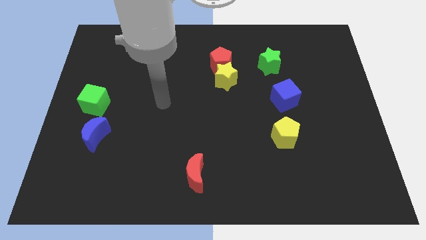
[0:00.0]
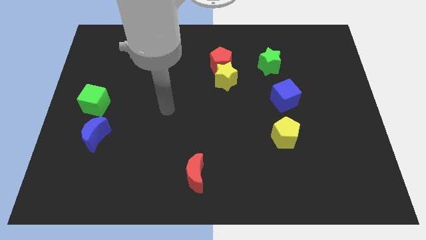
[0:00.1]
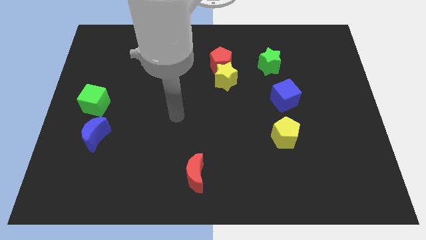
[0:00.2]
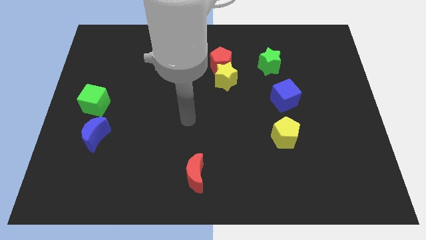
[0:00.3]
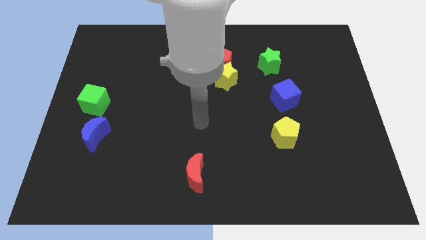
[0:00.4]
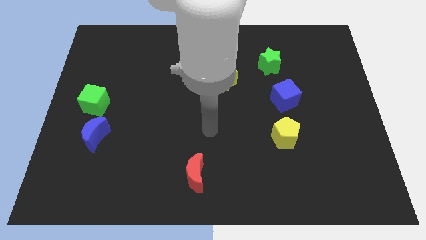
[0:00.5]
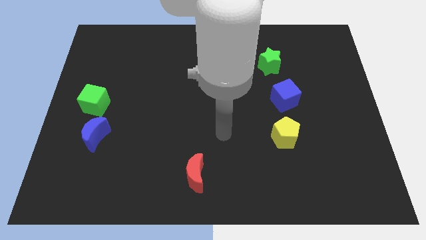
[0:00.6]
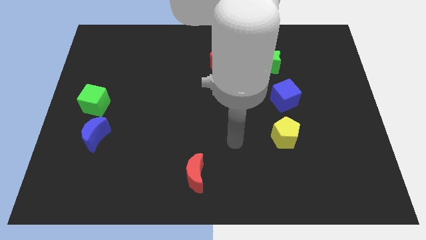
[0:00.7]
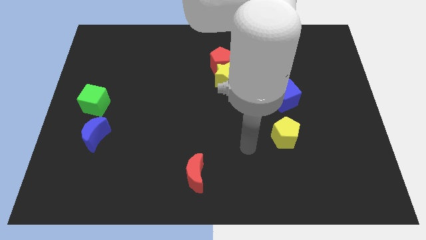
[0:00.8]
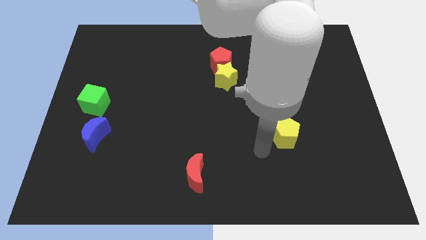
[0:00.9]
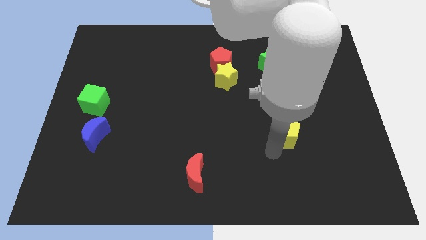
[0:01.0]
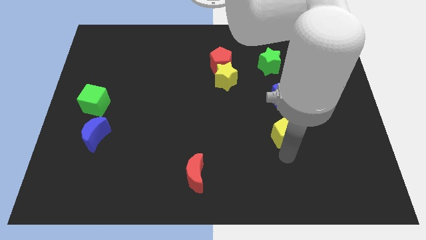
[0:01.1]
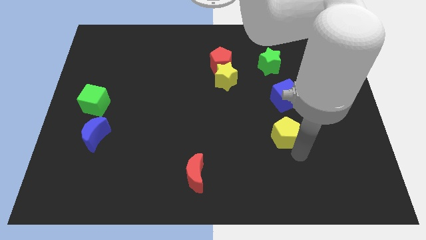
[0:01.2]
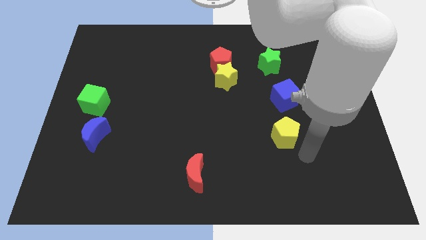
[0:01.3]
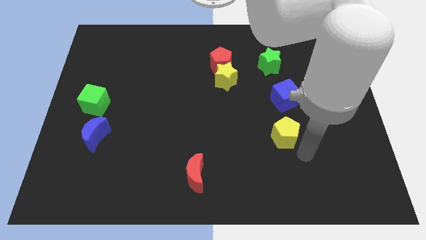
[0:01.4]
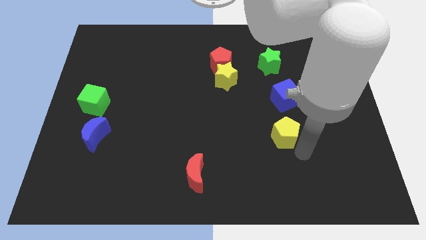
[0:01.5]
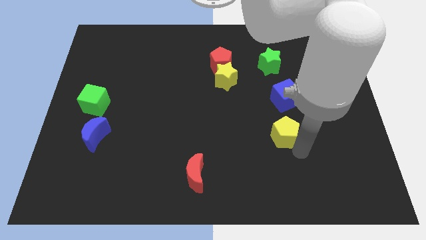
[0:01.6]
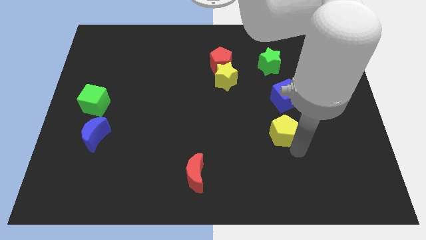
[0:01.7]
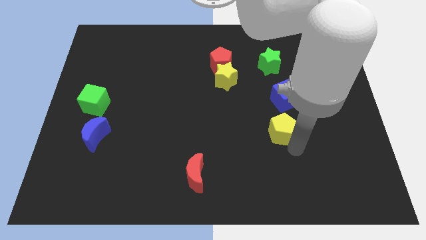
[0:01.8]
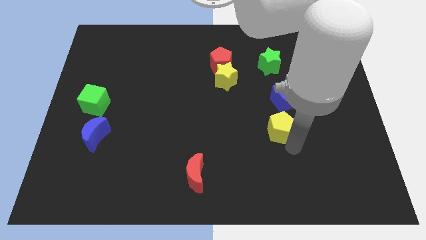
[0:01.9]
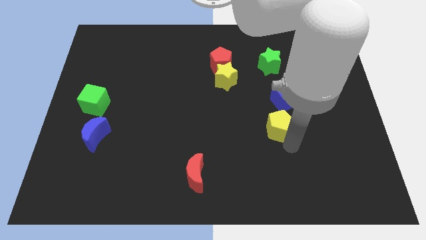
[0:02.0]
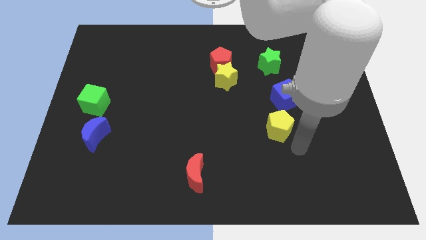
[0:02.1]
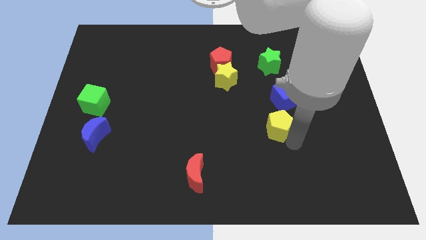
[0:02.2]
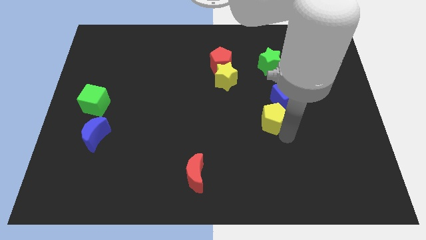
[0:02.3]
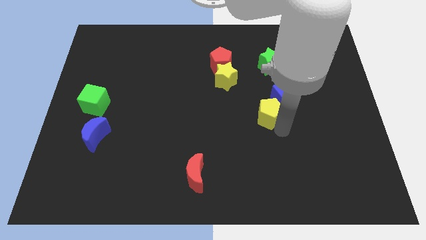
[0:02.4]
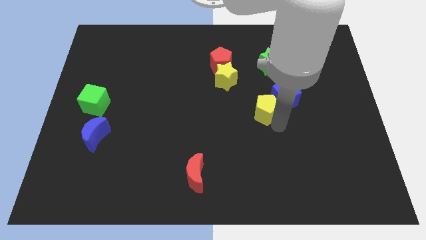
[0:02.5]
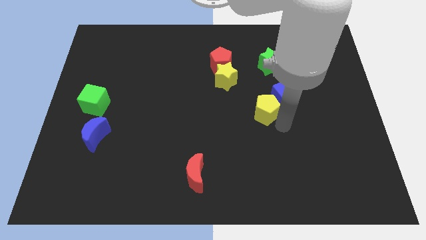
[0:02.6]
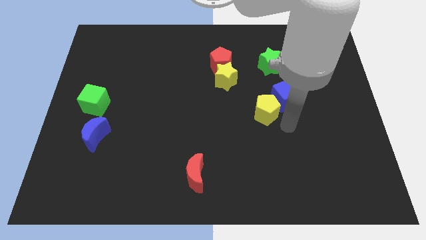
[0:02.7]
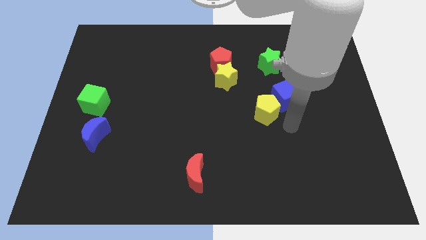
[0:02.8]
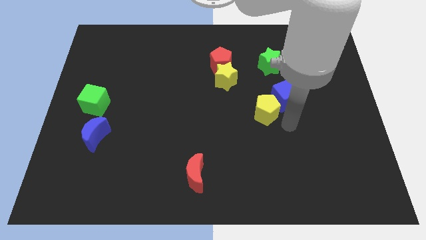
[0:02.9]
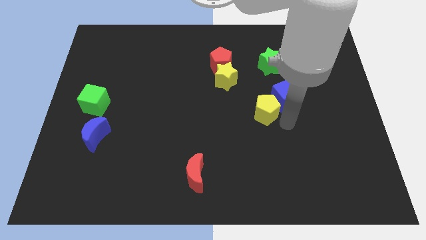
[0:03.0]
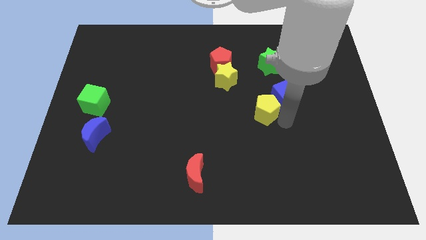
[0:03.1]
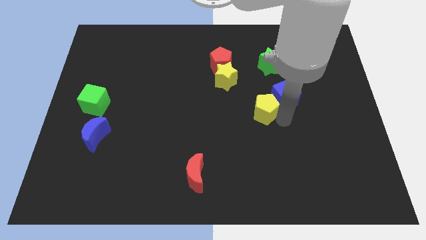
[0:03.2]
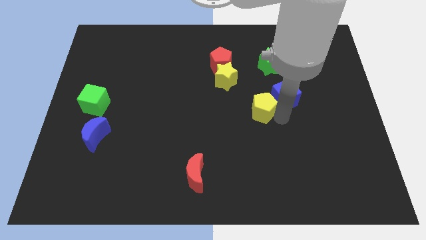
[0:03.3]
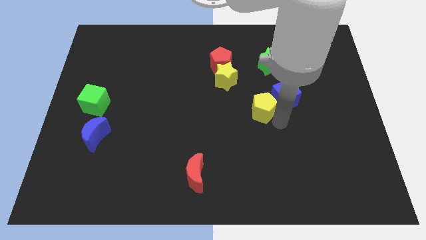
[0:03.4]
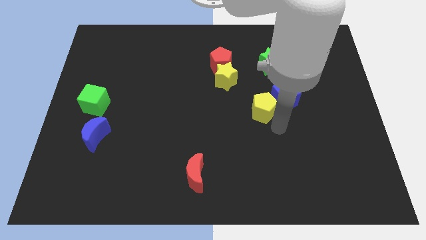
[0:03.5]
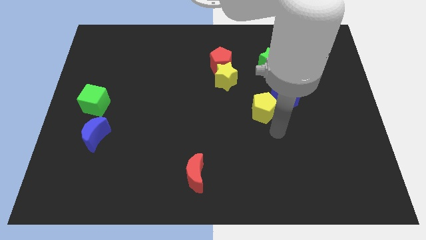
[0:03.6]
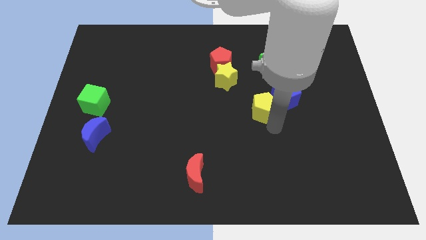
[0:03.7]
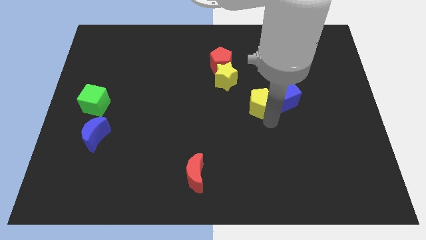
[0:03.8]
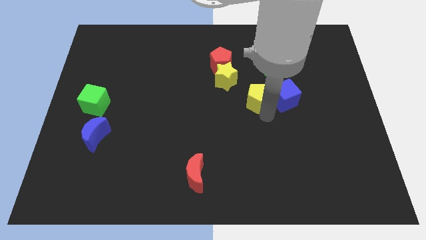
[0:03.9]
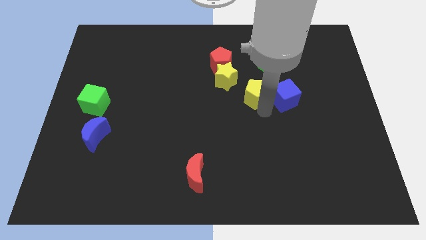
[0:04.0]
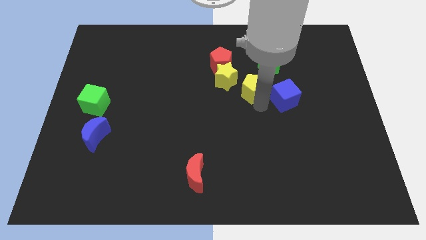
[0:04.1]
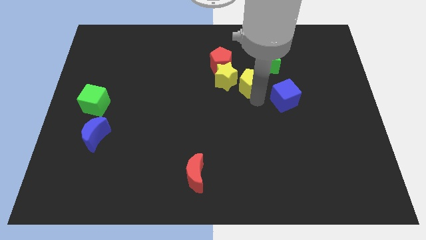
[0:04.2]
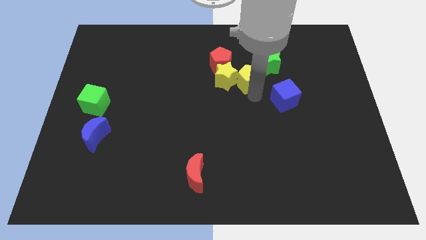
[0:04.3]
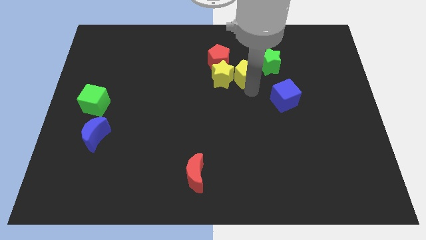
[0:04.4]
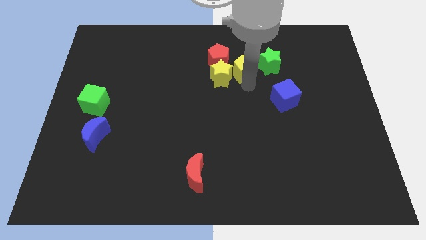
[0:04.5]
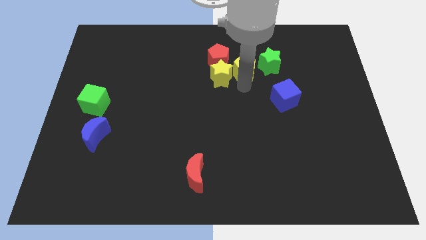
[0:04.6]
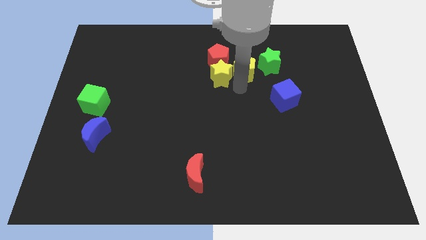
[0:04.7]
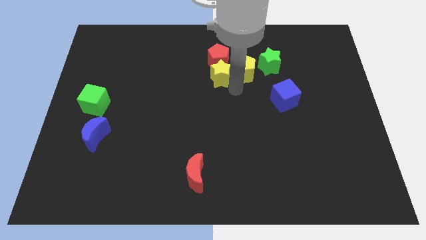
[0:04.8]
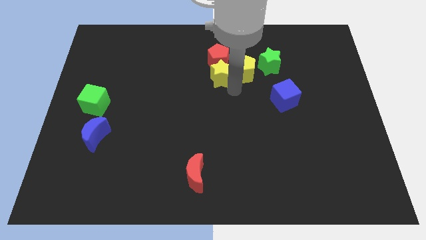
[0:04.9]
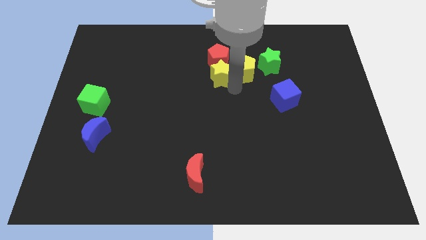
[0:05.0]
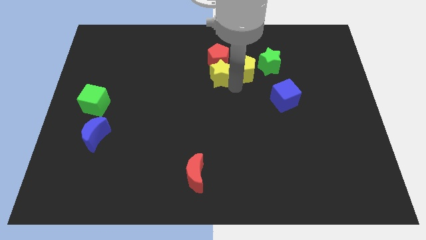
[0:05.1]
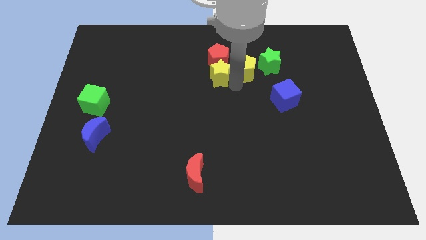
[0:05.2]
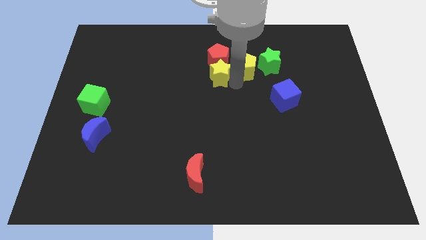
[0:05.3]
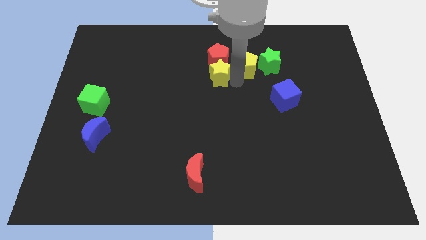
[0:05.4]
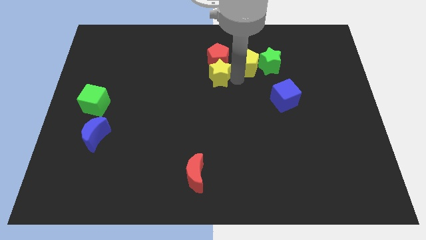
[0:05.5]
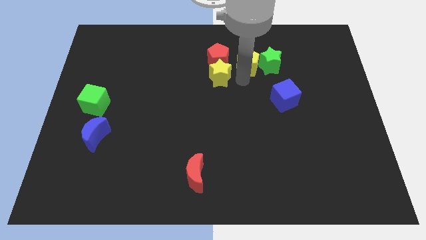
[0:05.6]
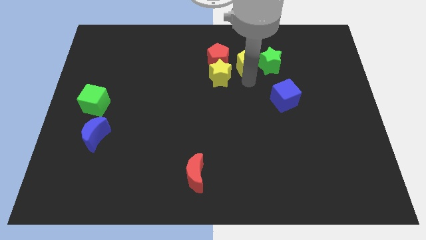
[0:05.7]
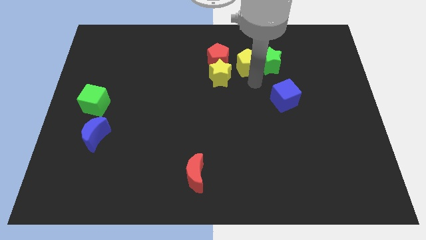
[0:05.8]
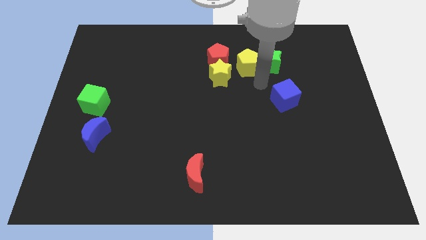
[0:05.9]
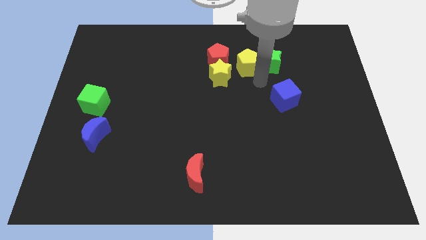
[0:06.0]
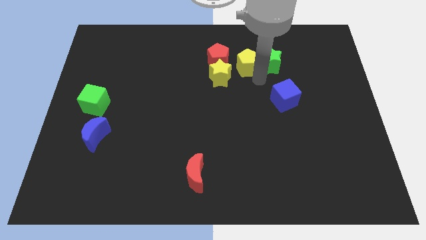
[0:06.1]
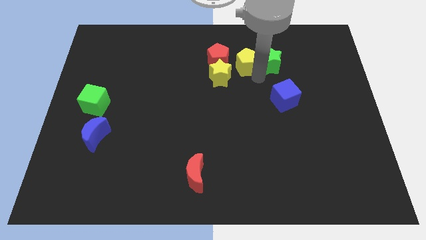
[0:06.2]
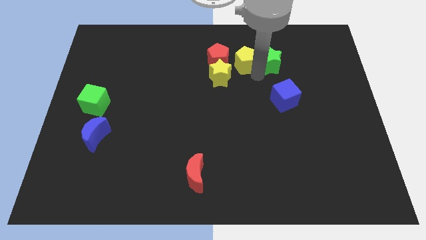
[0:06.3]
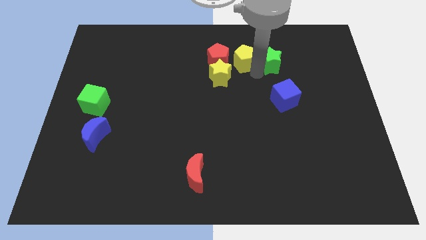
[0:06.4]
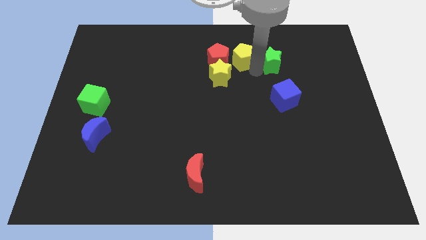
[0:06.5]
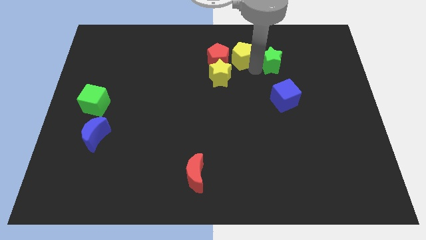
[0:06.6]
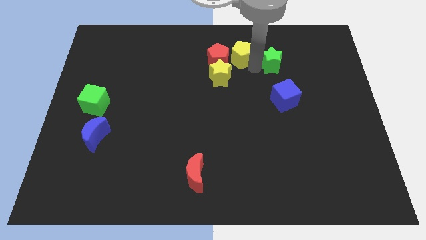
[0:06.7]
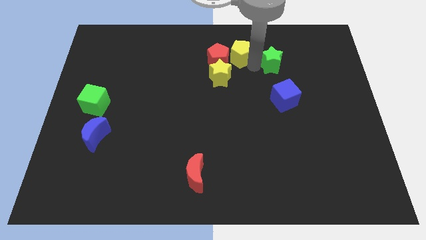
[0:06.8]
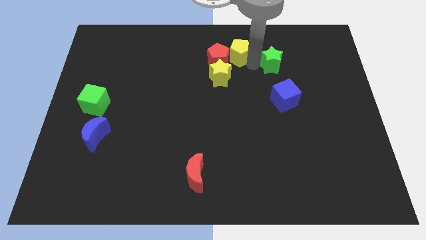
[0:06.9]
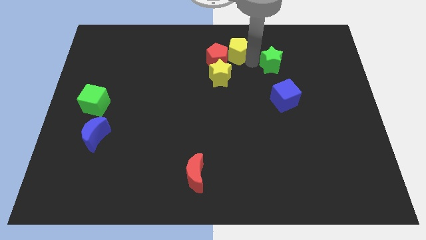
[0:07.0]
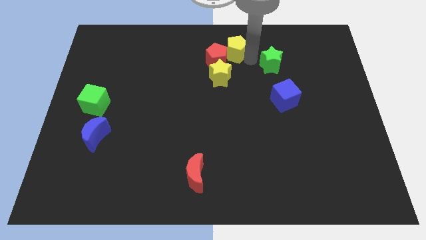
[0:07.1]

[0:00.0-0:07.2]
put the yellow pentagon to the towards your base
